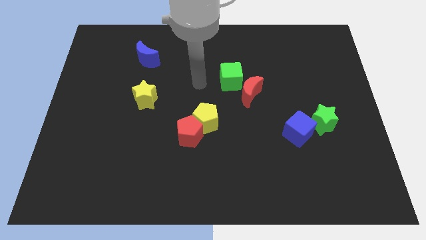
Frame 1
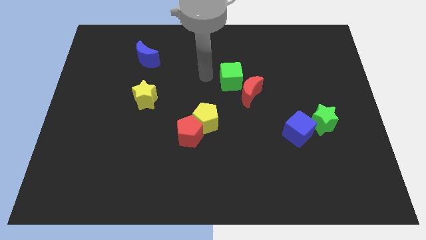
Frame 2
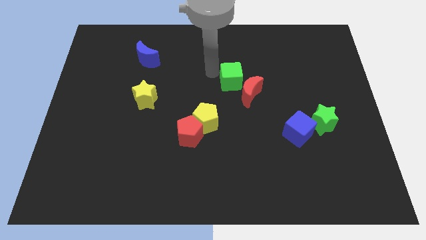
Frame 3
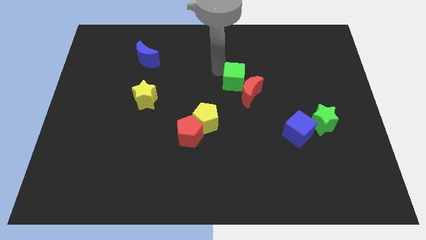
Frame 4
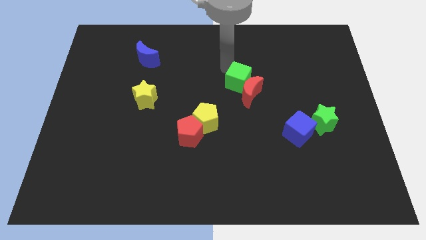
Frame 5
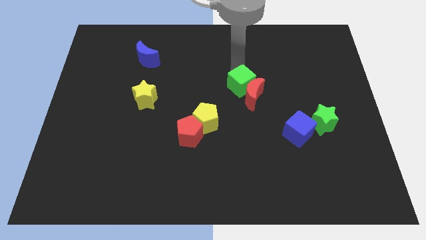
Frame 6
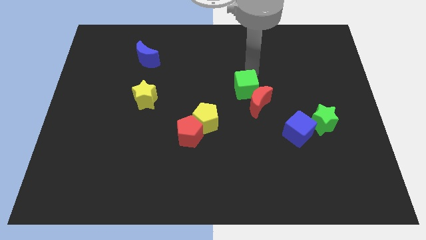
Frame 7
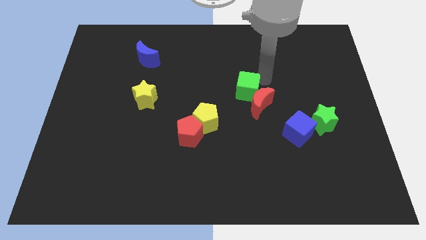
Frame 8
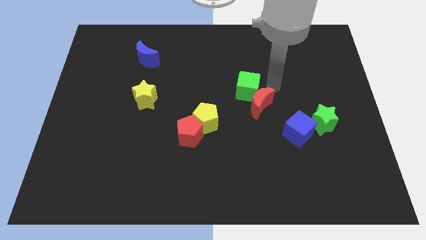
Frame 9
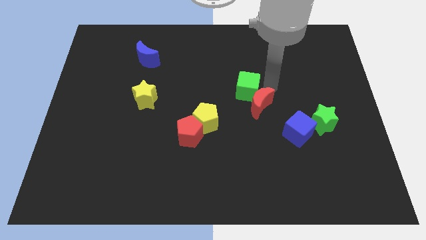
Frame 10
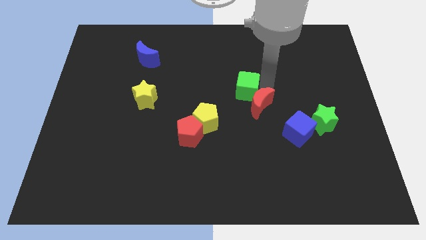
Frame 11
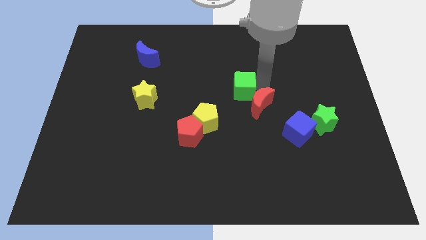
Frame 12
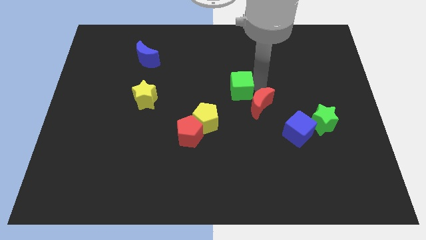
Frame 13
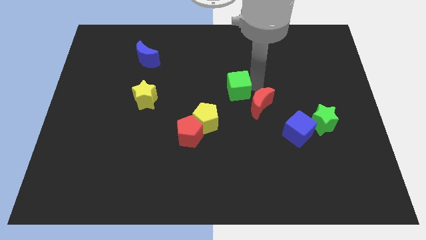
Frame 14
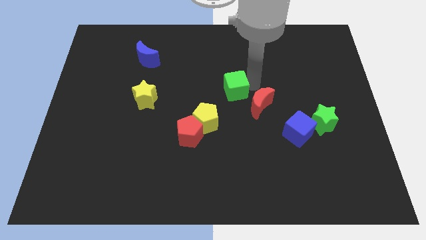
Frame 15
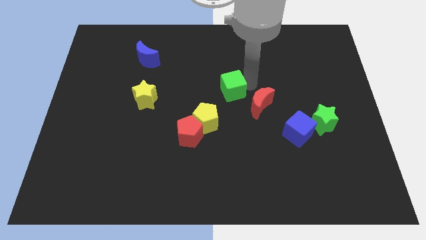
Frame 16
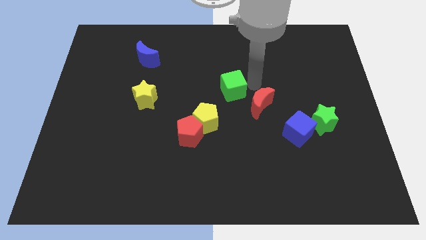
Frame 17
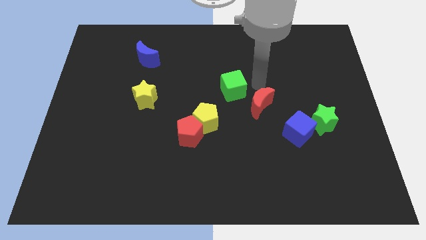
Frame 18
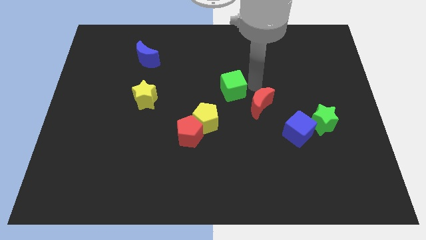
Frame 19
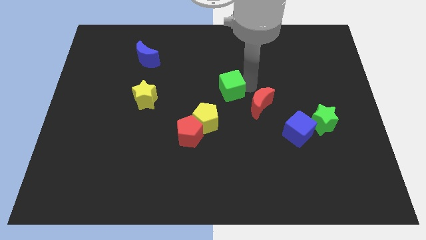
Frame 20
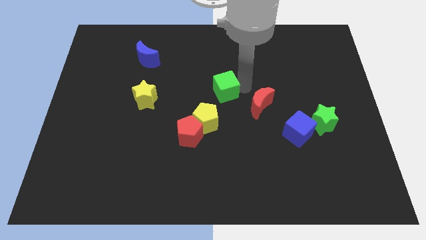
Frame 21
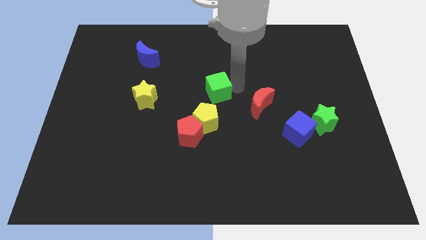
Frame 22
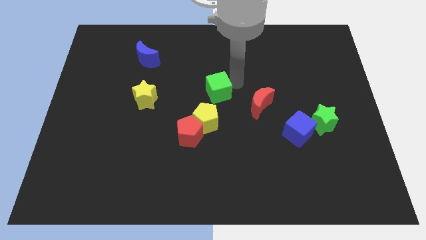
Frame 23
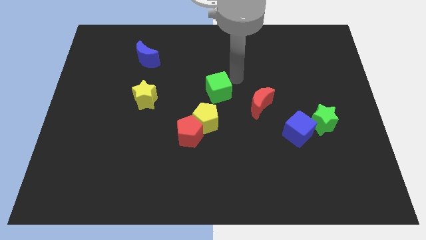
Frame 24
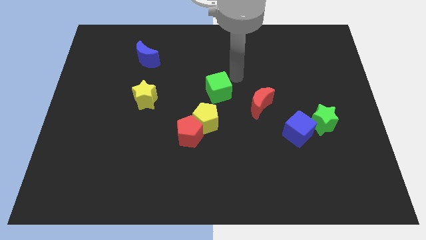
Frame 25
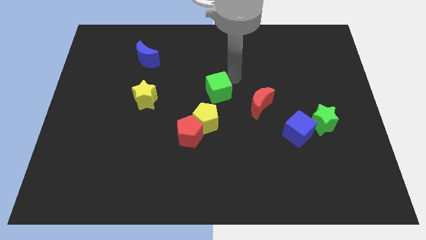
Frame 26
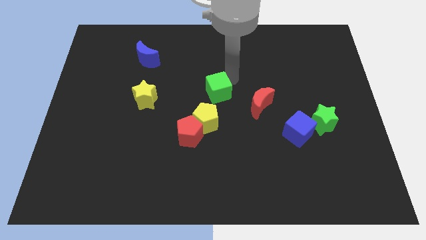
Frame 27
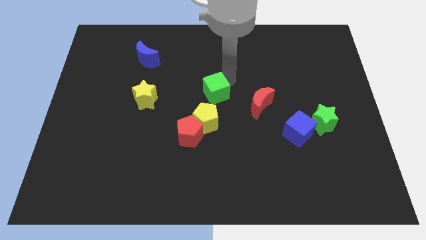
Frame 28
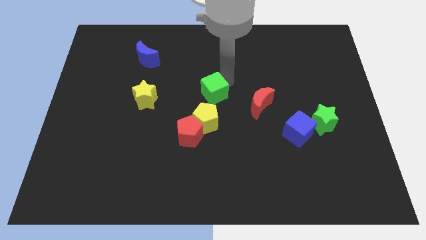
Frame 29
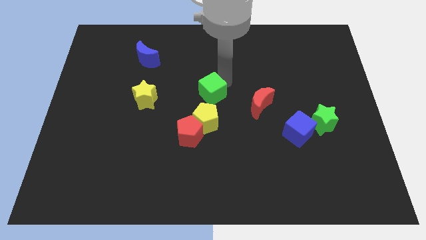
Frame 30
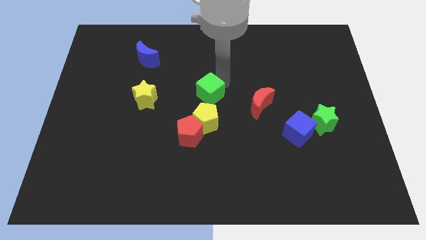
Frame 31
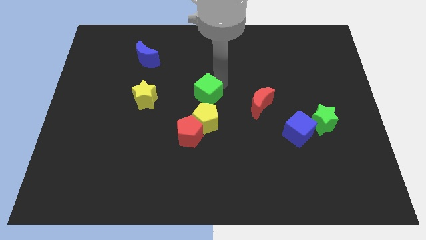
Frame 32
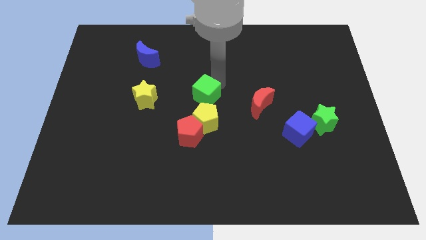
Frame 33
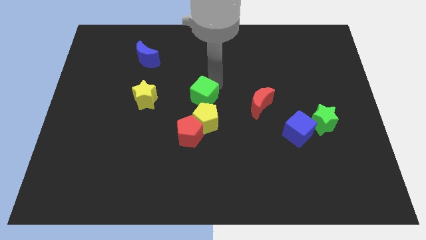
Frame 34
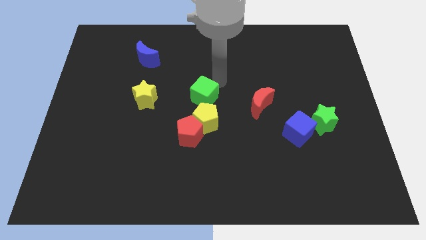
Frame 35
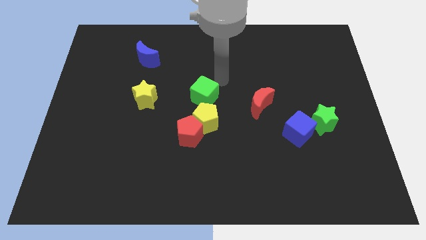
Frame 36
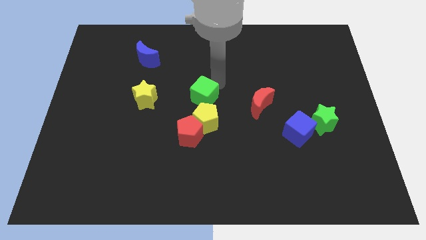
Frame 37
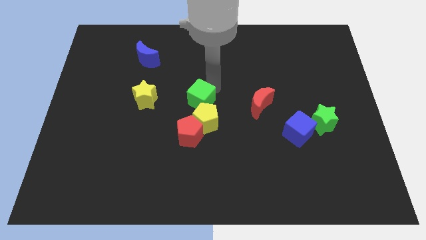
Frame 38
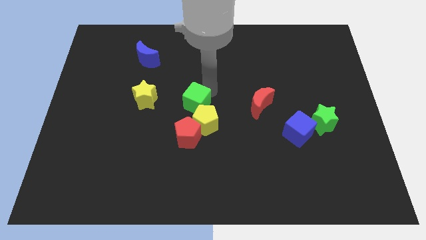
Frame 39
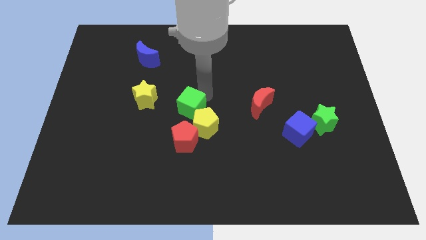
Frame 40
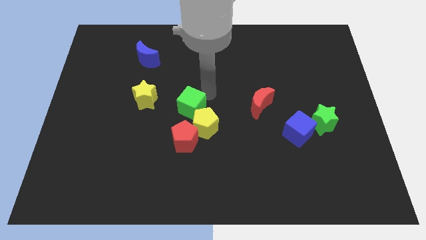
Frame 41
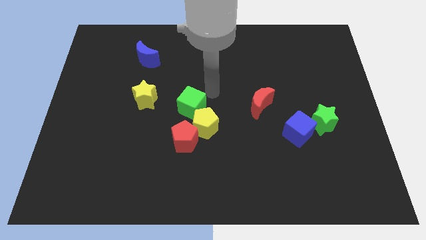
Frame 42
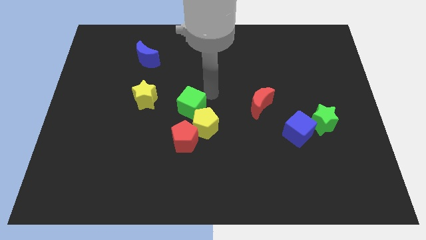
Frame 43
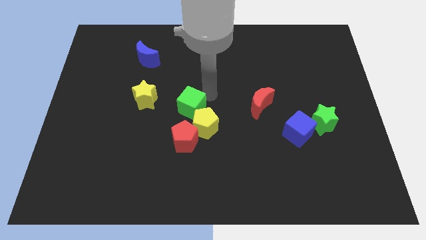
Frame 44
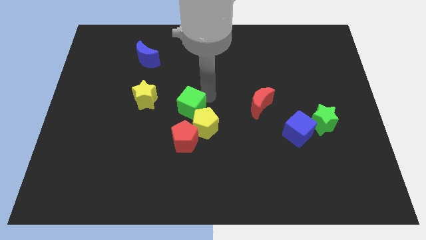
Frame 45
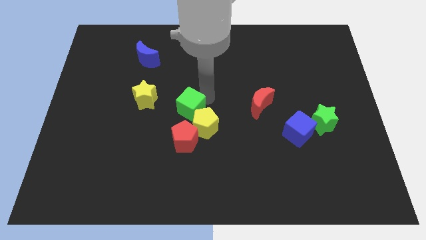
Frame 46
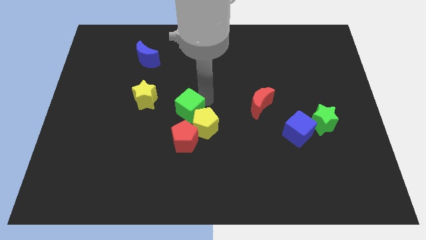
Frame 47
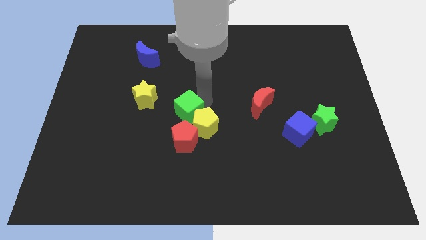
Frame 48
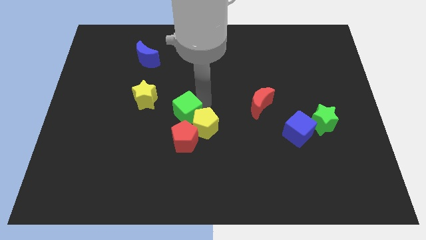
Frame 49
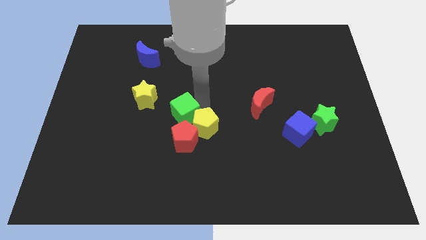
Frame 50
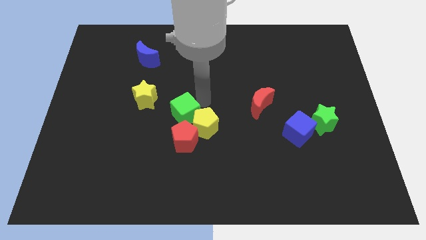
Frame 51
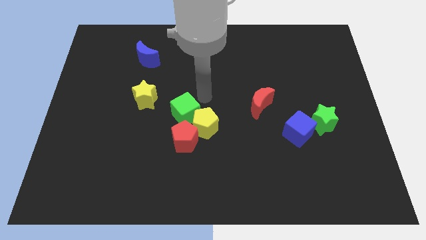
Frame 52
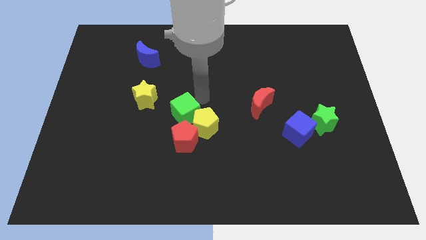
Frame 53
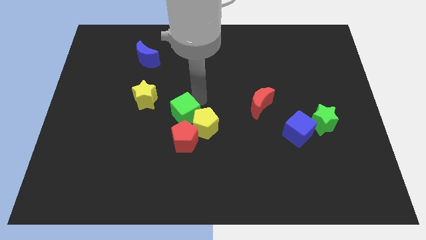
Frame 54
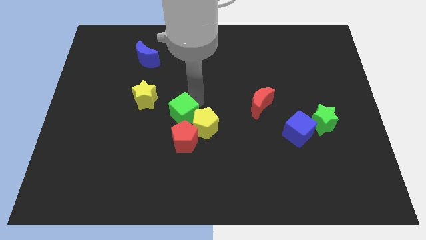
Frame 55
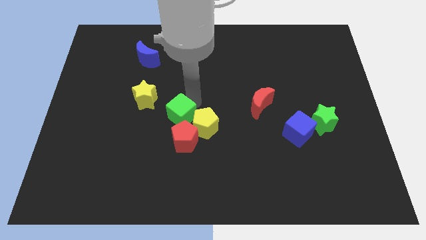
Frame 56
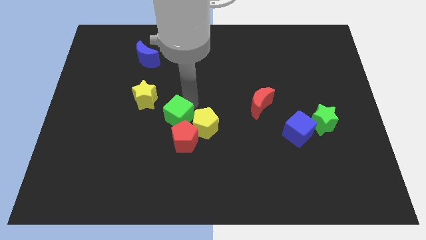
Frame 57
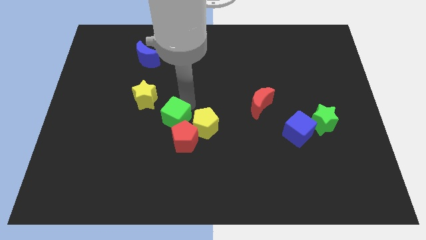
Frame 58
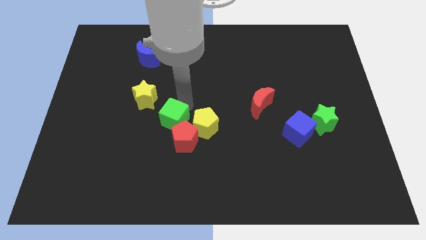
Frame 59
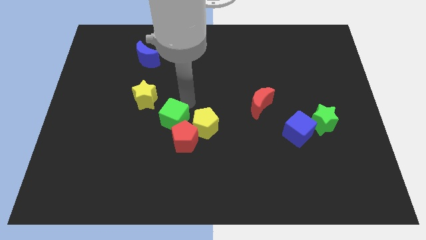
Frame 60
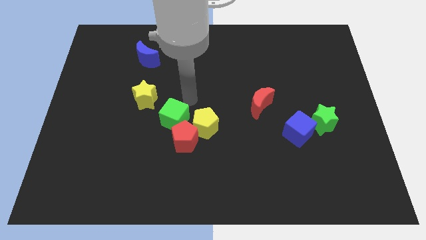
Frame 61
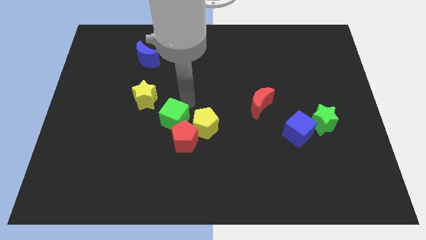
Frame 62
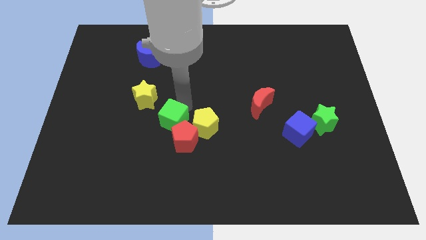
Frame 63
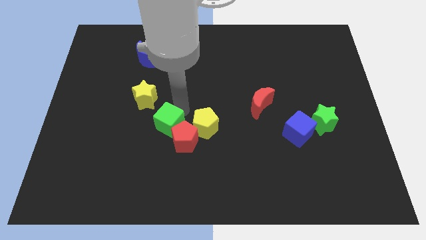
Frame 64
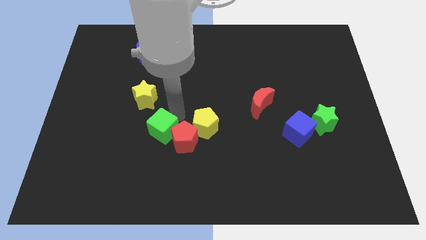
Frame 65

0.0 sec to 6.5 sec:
push the green cube diagonally downwards and to the left

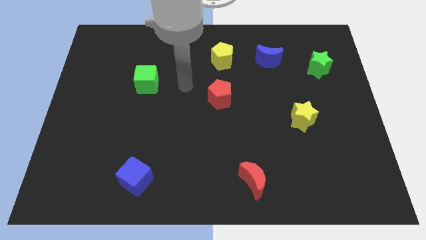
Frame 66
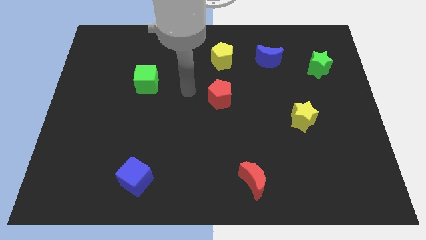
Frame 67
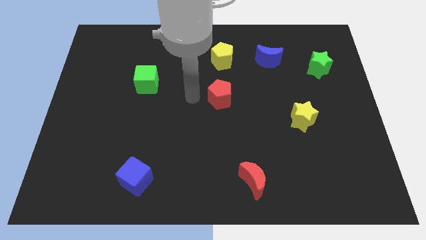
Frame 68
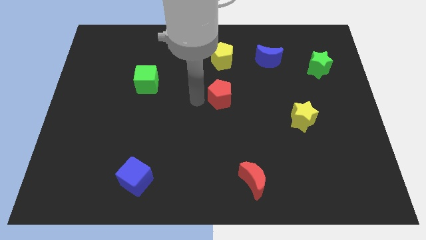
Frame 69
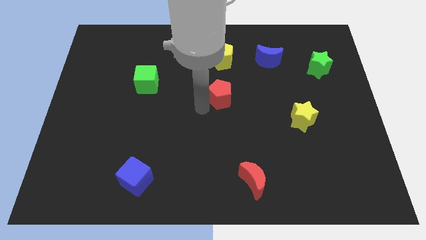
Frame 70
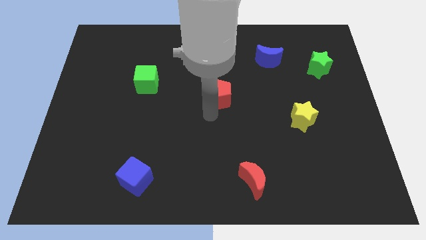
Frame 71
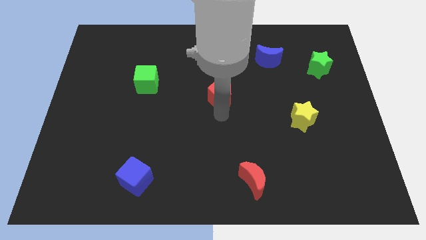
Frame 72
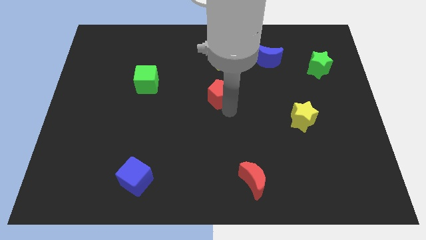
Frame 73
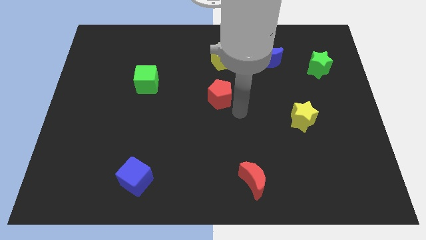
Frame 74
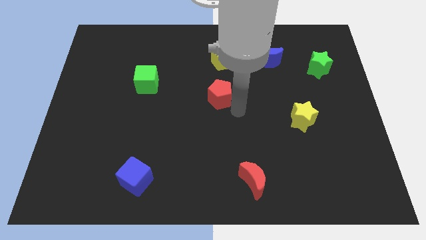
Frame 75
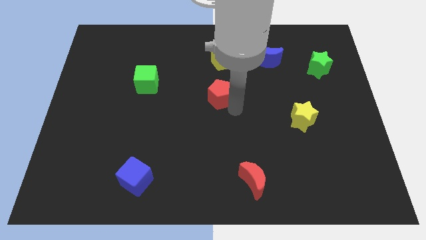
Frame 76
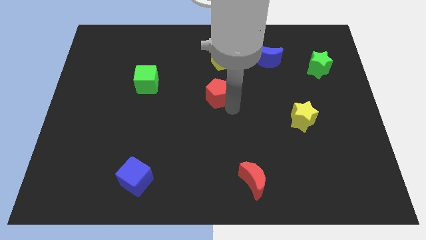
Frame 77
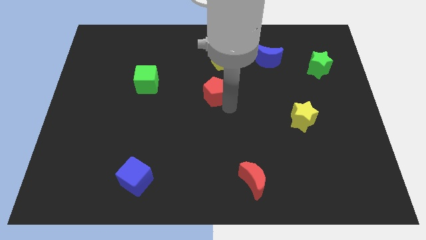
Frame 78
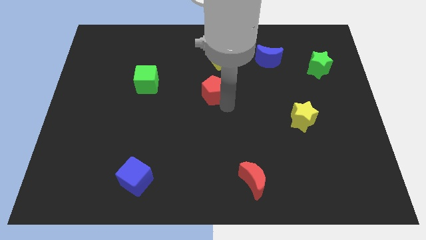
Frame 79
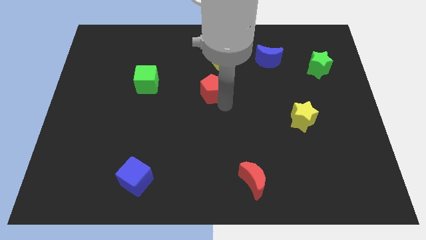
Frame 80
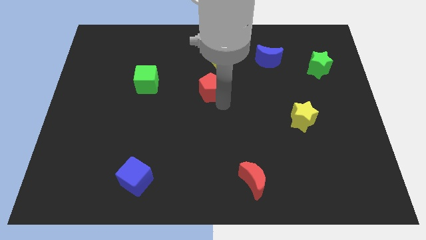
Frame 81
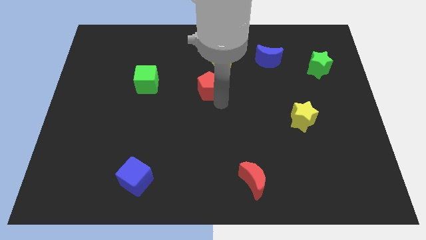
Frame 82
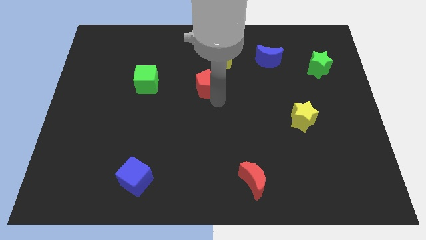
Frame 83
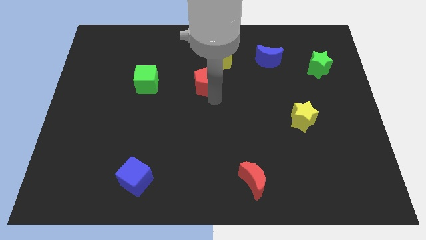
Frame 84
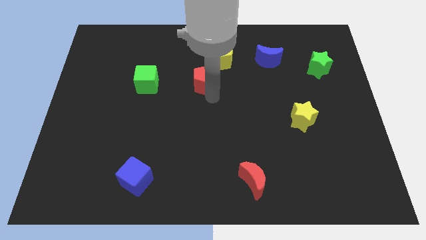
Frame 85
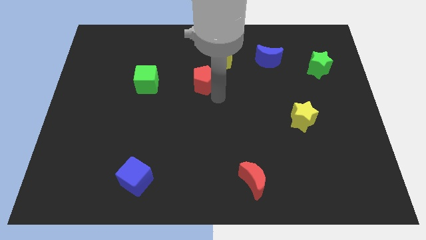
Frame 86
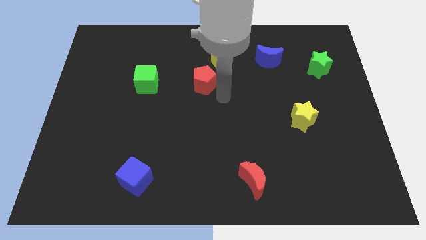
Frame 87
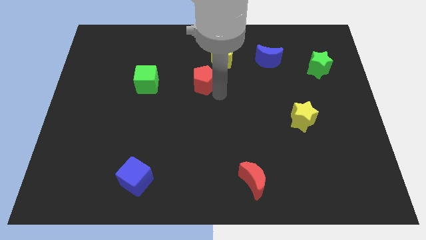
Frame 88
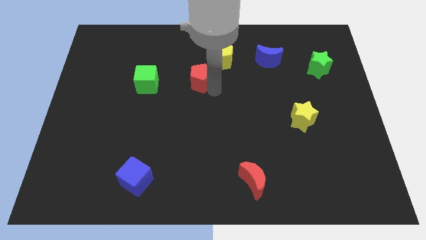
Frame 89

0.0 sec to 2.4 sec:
push the red pentagon somewhat up and then to the left
